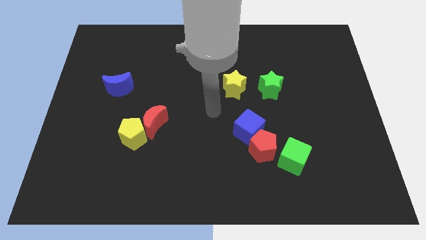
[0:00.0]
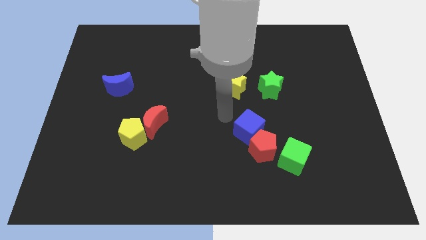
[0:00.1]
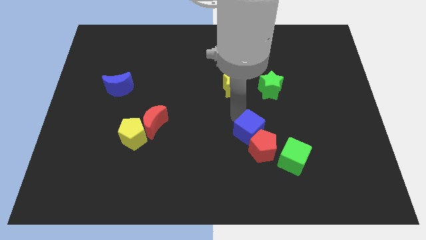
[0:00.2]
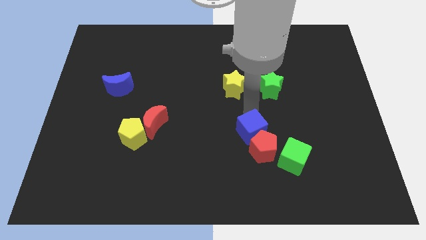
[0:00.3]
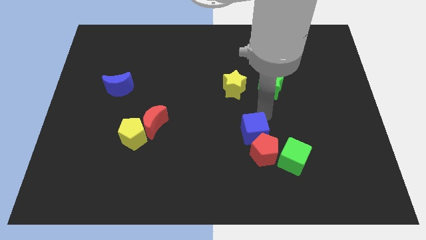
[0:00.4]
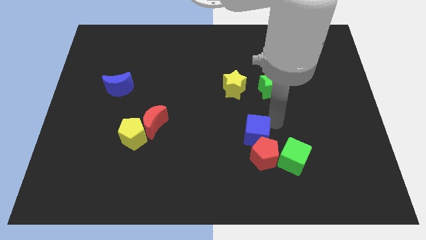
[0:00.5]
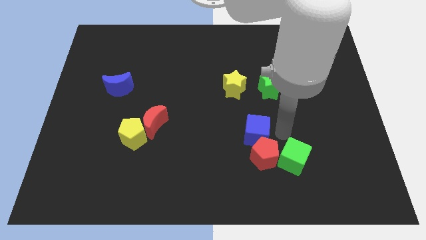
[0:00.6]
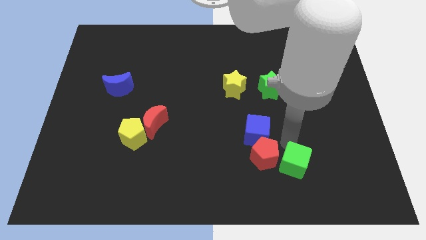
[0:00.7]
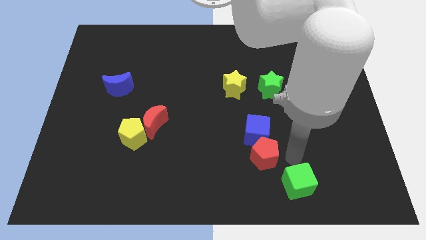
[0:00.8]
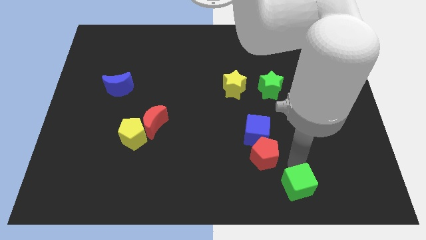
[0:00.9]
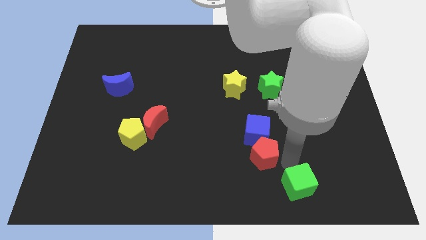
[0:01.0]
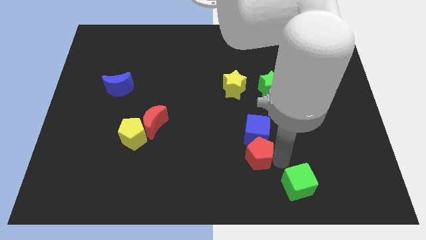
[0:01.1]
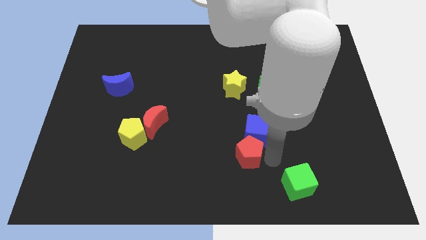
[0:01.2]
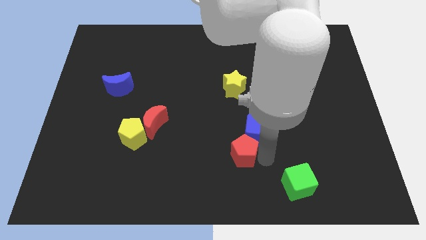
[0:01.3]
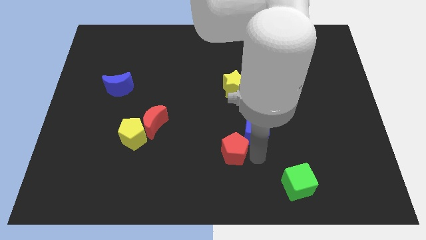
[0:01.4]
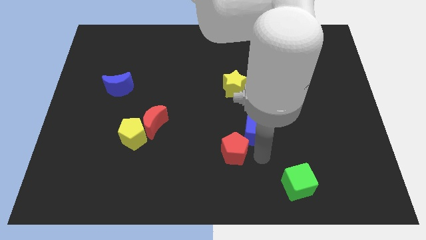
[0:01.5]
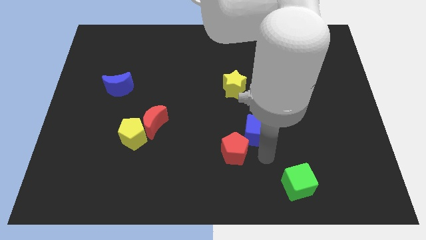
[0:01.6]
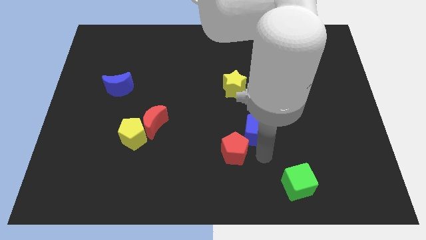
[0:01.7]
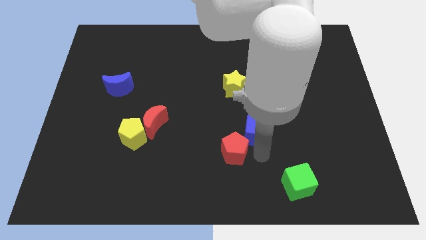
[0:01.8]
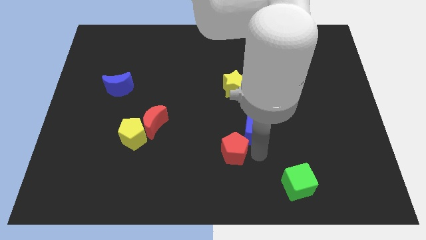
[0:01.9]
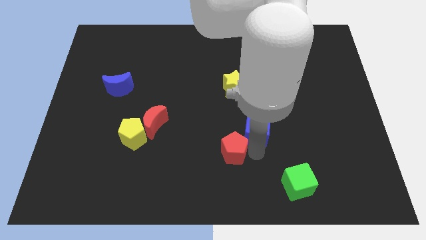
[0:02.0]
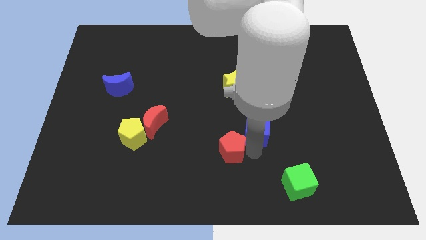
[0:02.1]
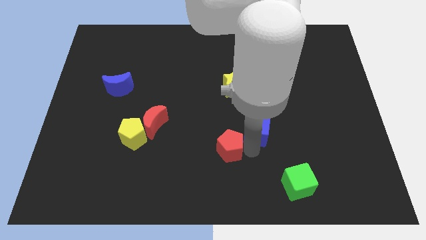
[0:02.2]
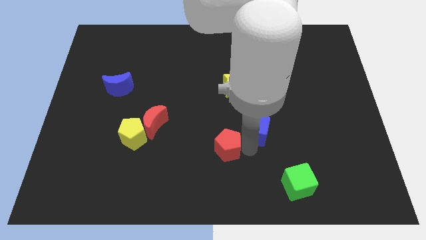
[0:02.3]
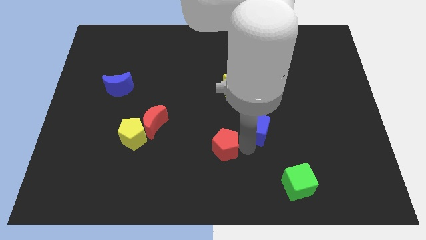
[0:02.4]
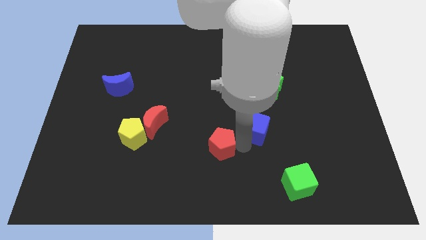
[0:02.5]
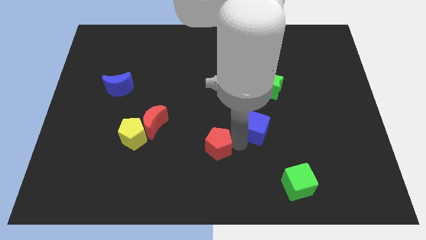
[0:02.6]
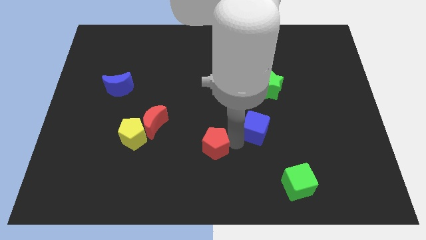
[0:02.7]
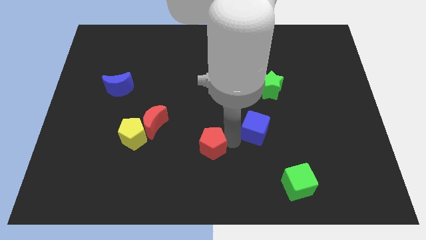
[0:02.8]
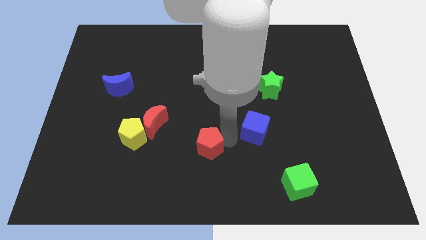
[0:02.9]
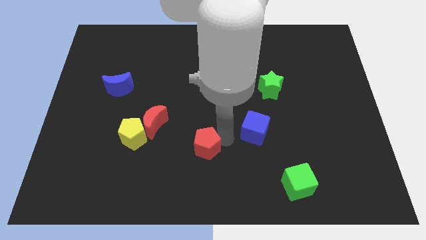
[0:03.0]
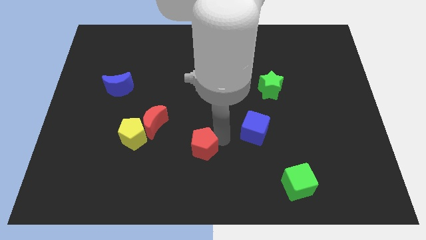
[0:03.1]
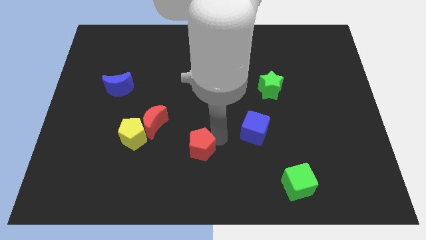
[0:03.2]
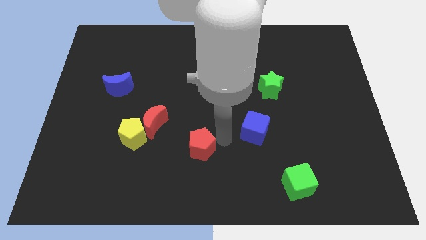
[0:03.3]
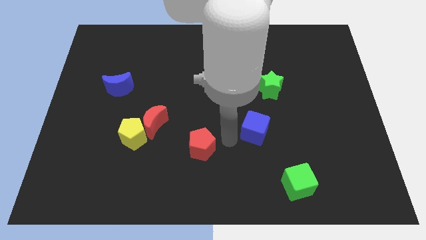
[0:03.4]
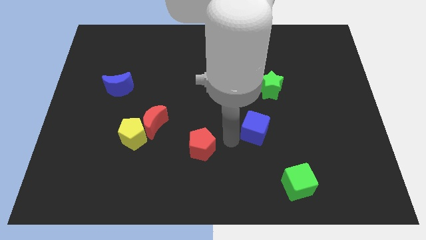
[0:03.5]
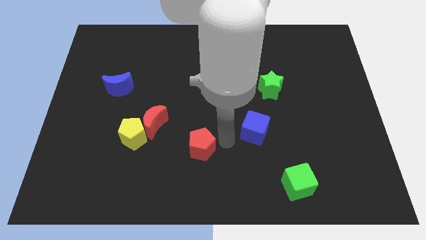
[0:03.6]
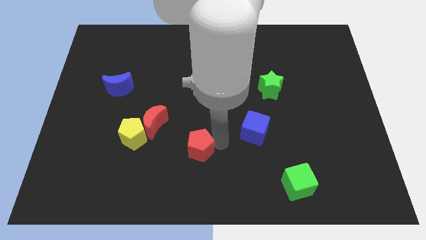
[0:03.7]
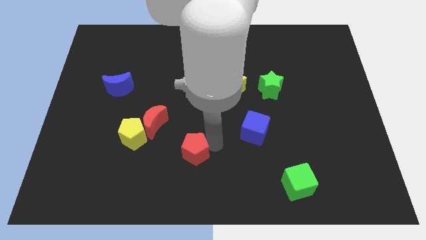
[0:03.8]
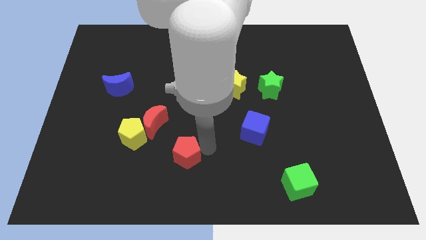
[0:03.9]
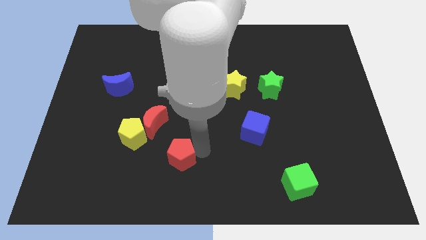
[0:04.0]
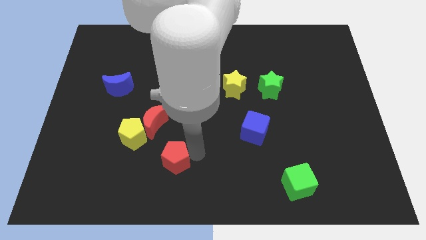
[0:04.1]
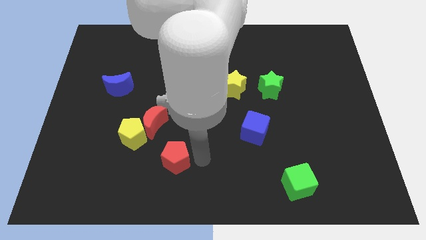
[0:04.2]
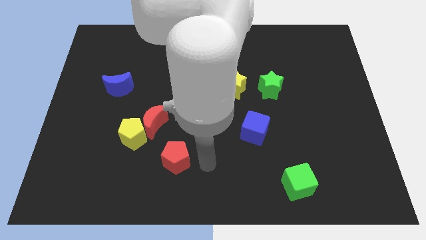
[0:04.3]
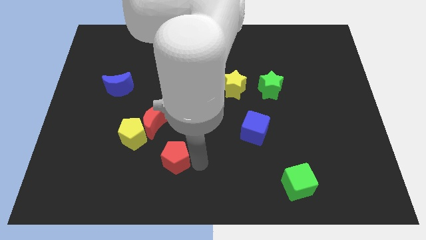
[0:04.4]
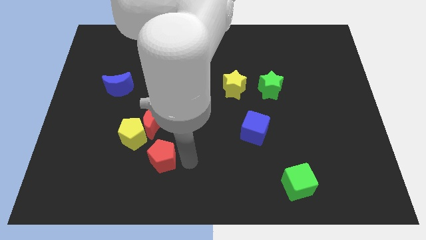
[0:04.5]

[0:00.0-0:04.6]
move the red pentagon to the left

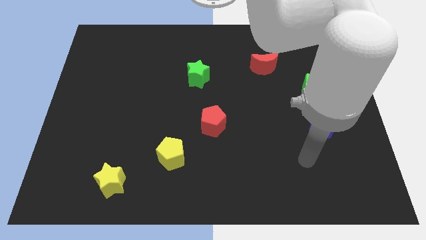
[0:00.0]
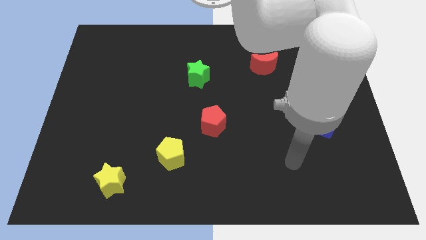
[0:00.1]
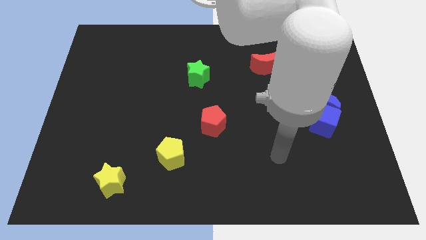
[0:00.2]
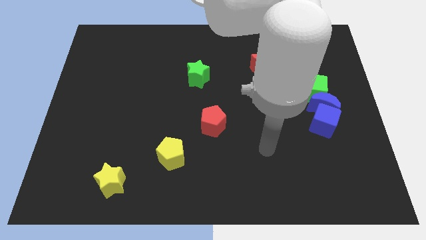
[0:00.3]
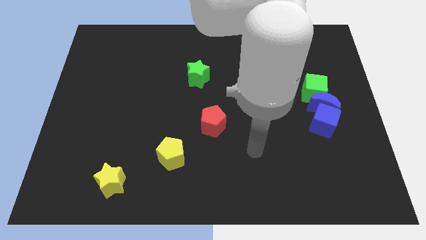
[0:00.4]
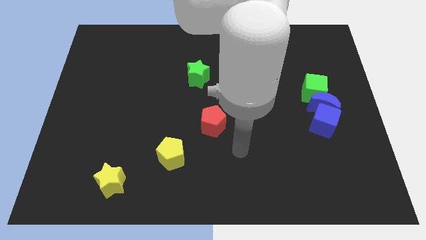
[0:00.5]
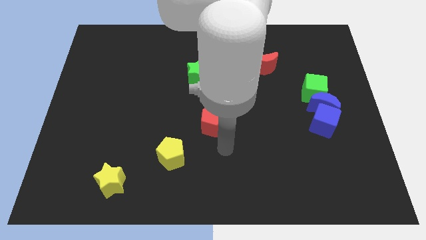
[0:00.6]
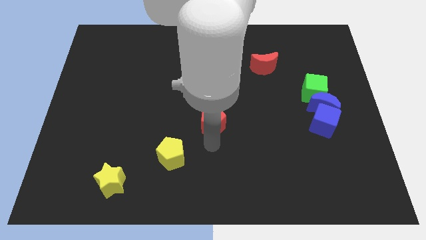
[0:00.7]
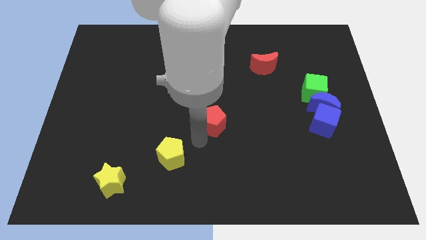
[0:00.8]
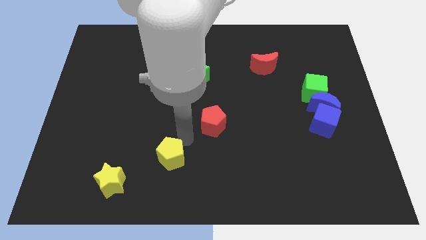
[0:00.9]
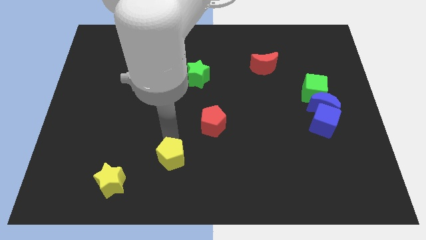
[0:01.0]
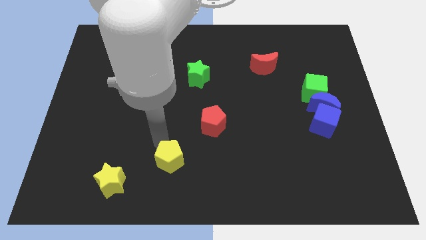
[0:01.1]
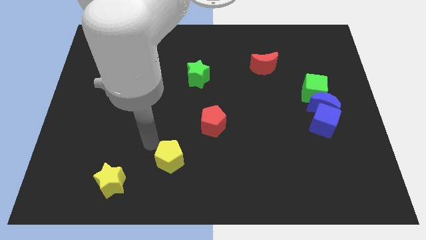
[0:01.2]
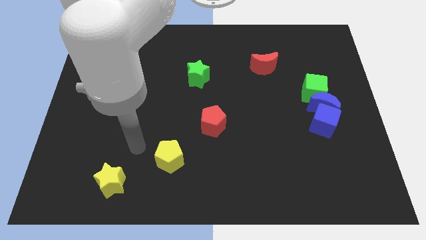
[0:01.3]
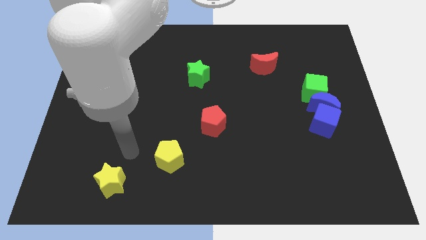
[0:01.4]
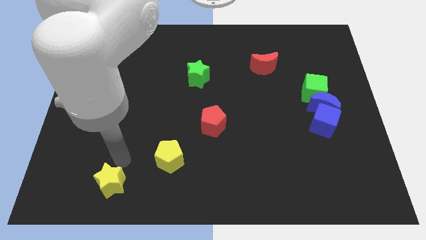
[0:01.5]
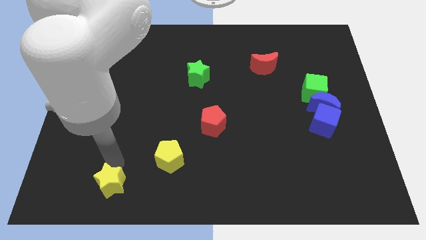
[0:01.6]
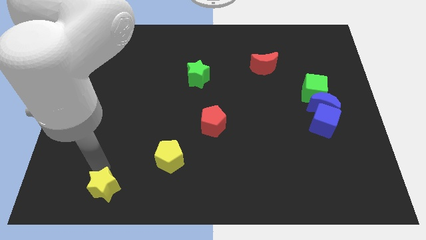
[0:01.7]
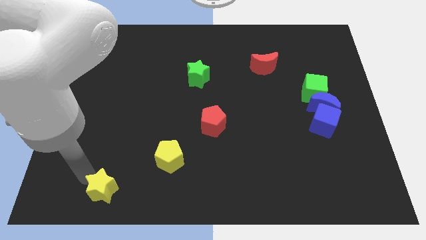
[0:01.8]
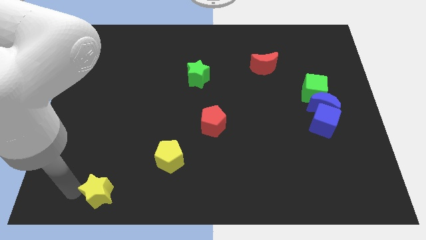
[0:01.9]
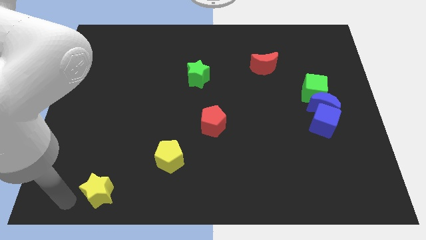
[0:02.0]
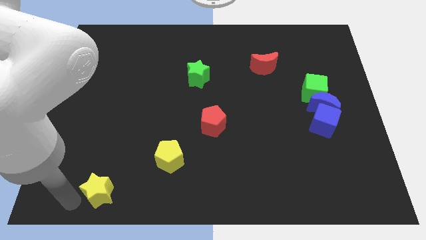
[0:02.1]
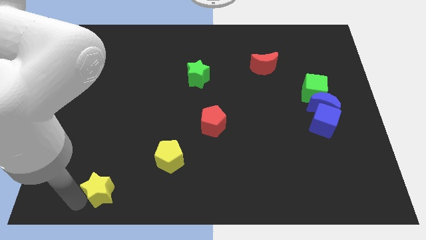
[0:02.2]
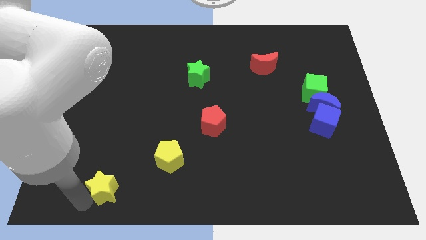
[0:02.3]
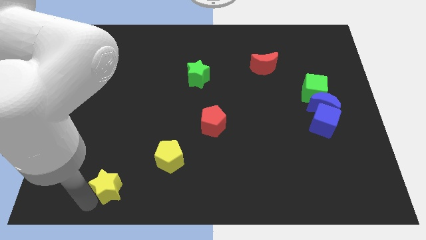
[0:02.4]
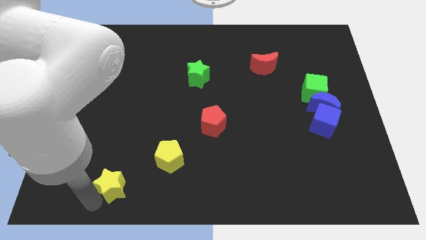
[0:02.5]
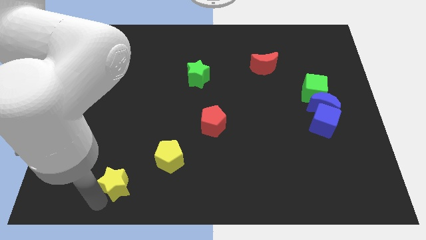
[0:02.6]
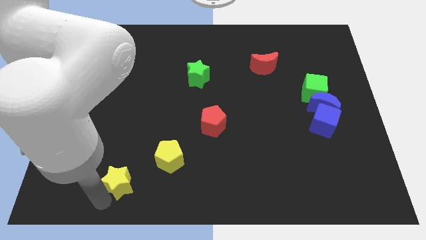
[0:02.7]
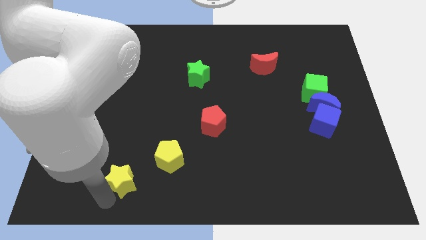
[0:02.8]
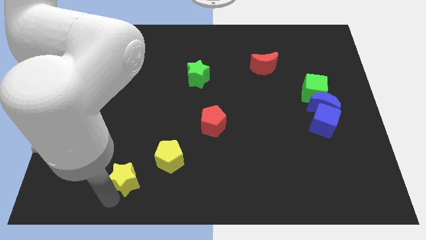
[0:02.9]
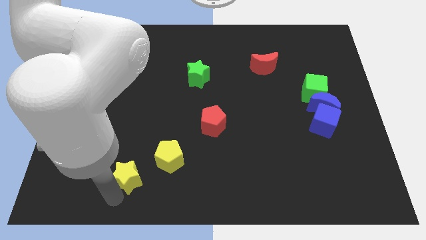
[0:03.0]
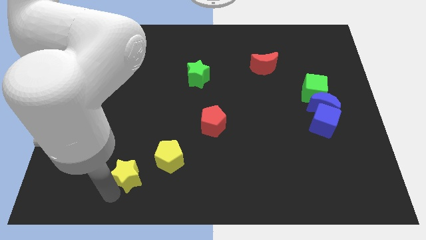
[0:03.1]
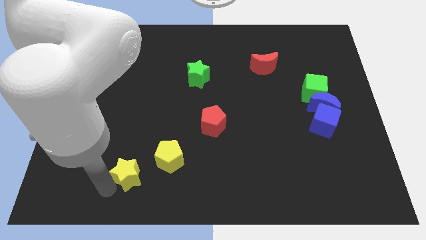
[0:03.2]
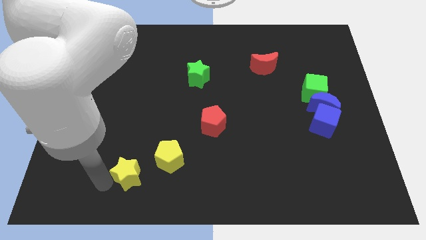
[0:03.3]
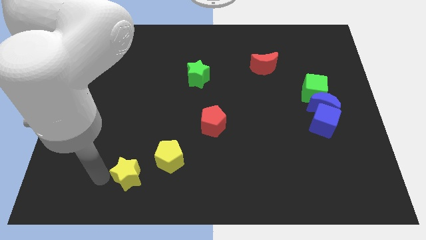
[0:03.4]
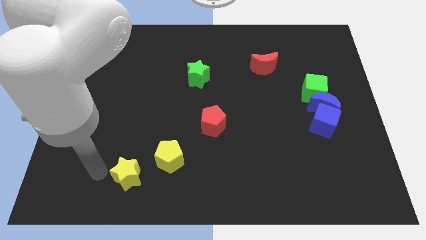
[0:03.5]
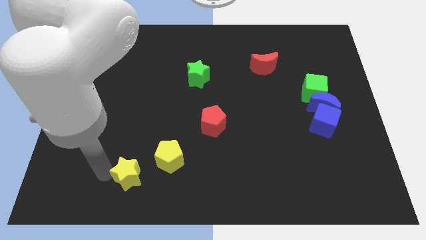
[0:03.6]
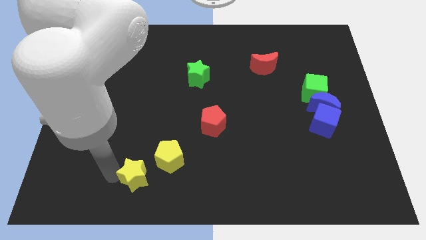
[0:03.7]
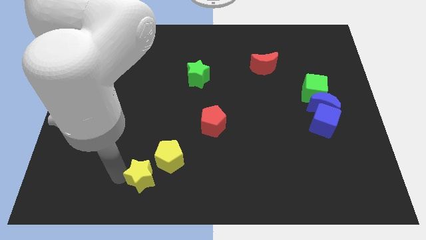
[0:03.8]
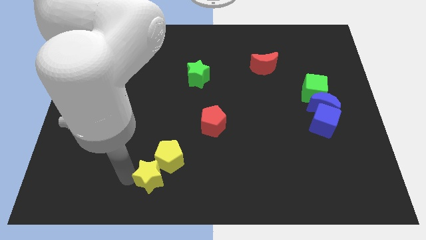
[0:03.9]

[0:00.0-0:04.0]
push the yellow star a little bit to the right
